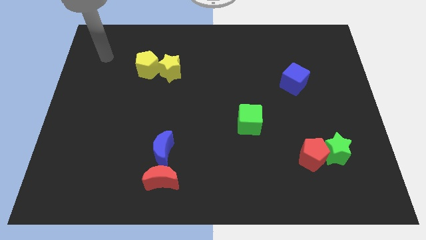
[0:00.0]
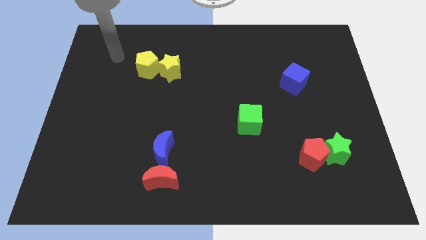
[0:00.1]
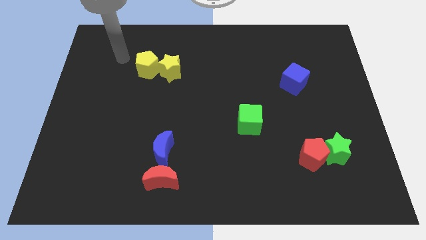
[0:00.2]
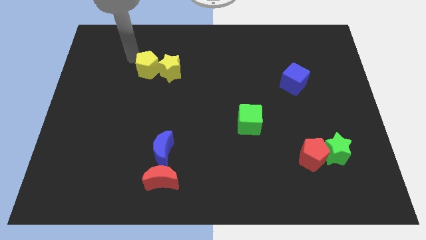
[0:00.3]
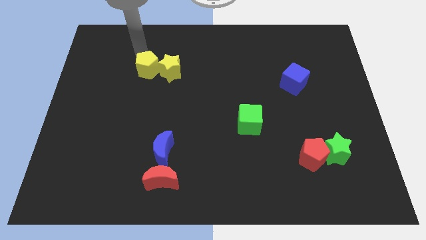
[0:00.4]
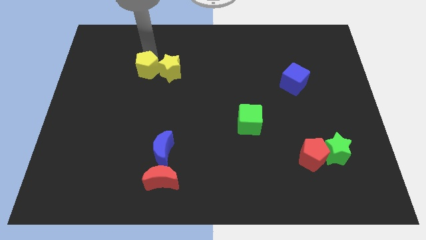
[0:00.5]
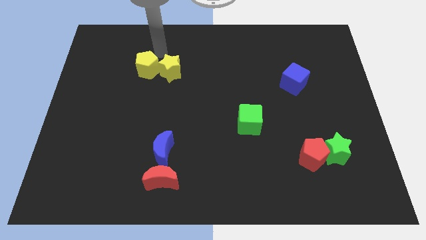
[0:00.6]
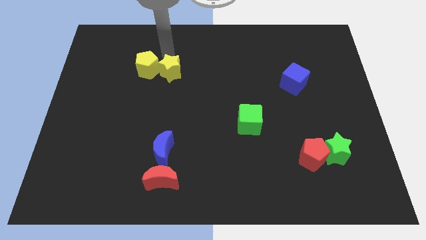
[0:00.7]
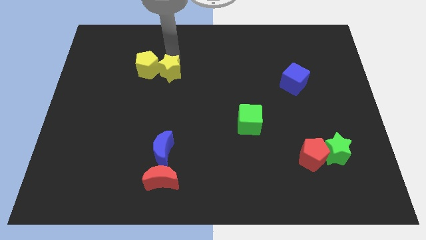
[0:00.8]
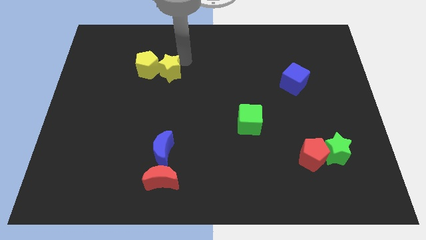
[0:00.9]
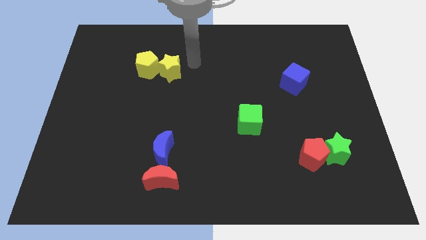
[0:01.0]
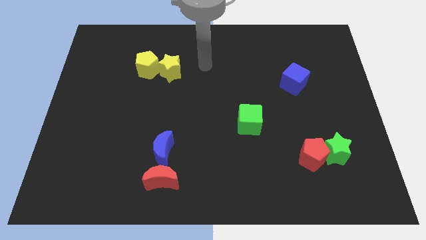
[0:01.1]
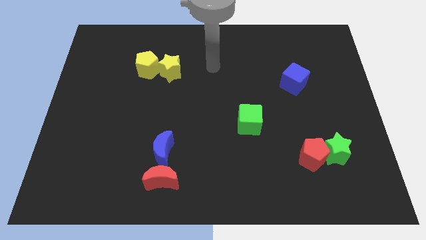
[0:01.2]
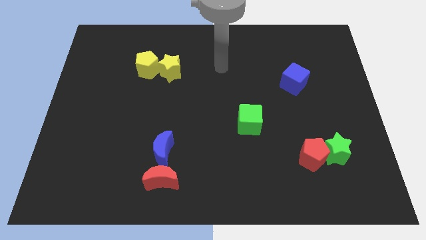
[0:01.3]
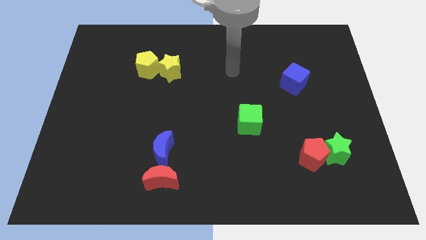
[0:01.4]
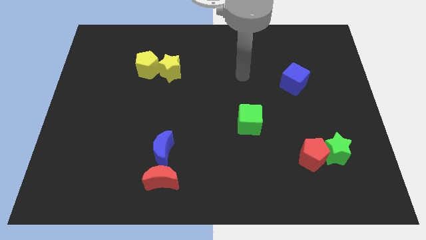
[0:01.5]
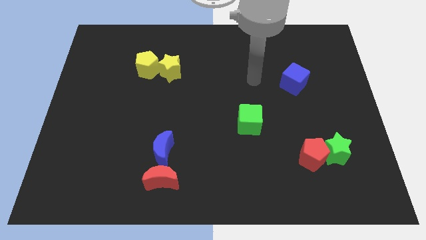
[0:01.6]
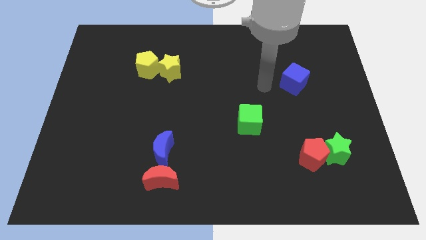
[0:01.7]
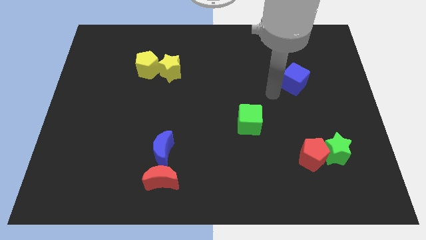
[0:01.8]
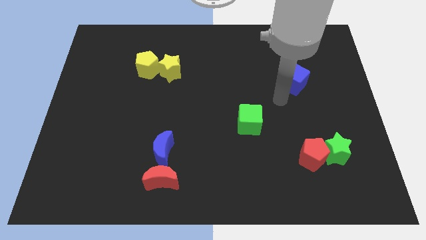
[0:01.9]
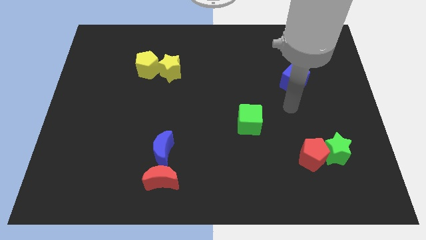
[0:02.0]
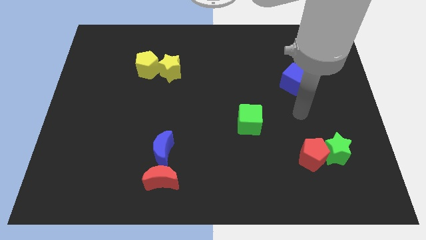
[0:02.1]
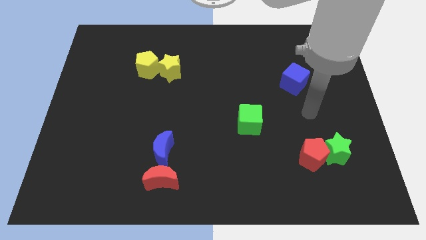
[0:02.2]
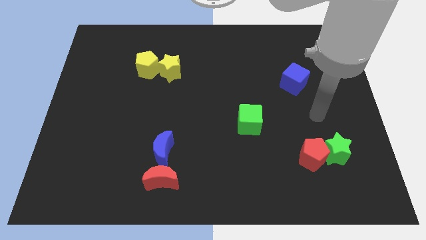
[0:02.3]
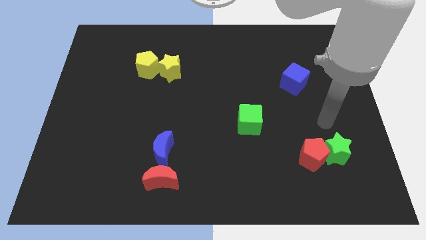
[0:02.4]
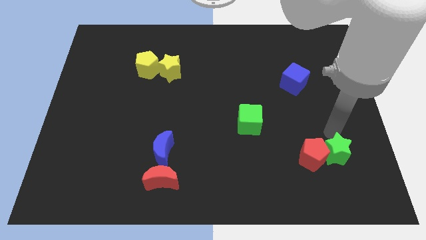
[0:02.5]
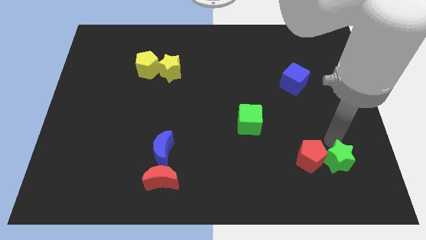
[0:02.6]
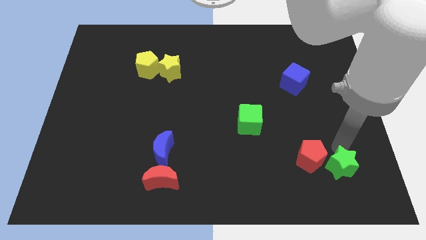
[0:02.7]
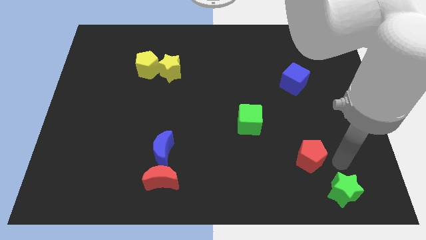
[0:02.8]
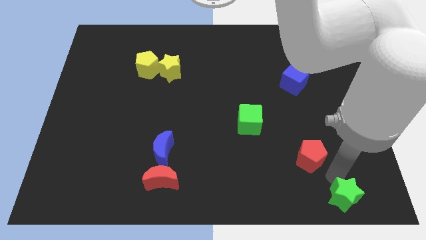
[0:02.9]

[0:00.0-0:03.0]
move the red pentagon away from the green star

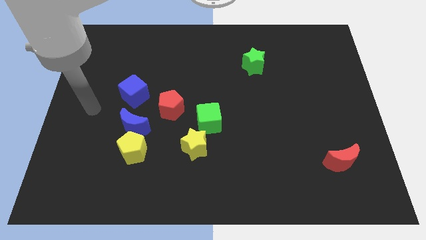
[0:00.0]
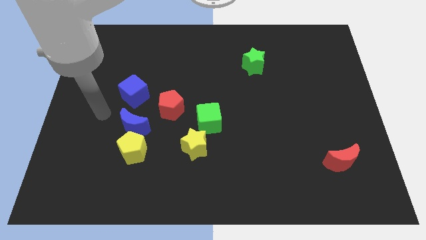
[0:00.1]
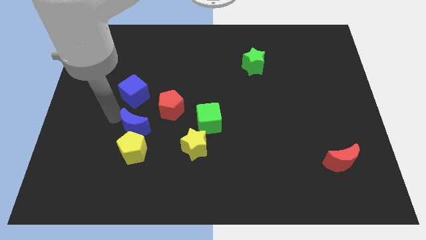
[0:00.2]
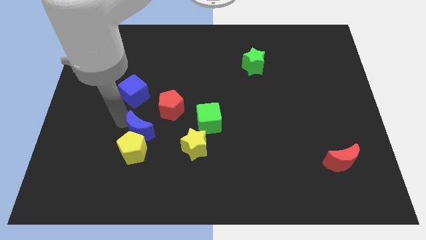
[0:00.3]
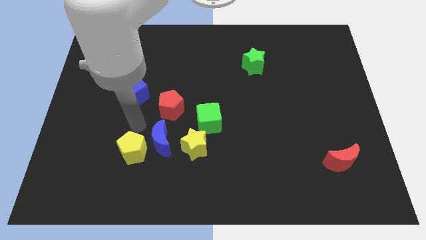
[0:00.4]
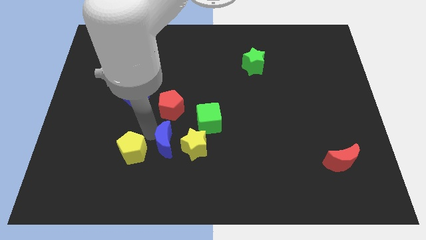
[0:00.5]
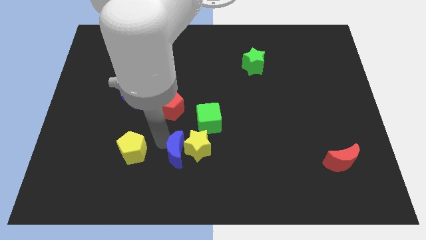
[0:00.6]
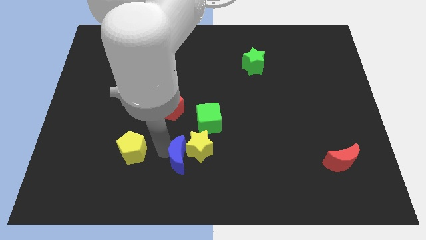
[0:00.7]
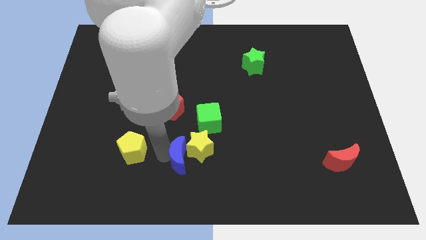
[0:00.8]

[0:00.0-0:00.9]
pull the yellow pentagon apart from the blue moon

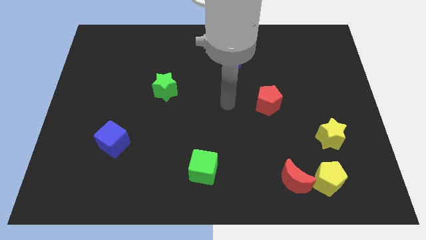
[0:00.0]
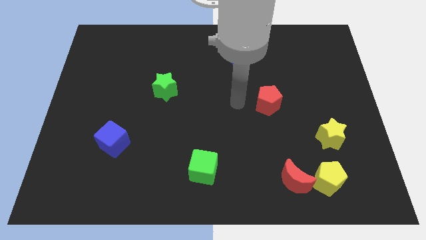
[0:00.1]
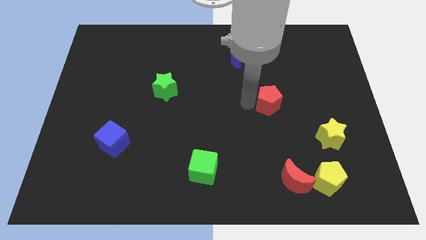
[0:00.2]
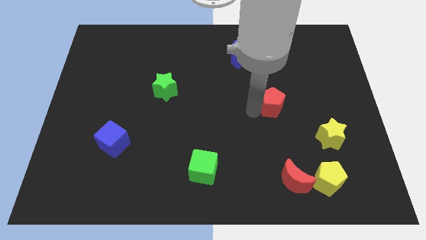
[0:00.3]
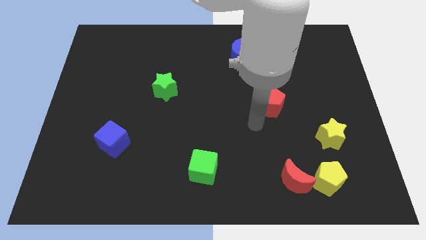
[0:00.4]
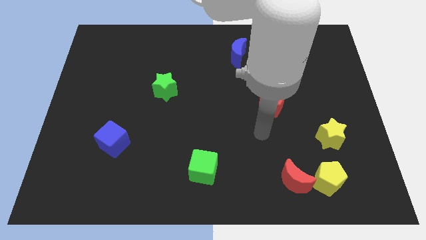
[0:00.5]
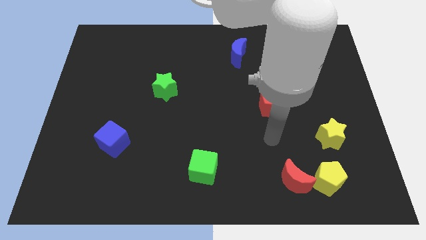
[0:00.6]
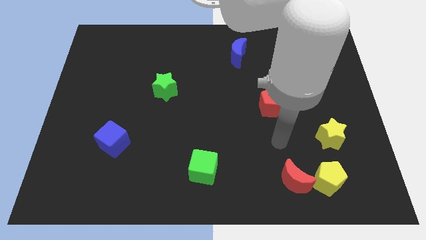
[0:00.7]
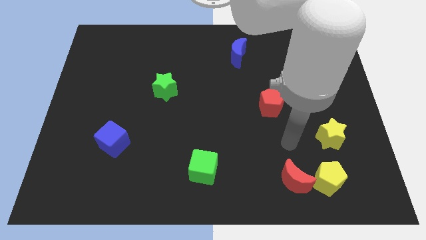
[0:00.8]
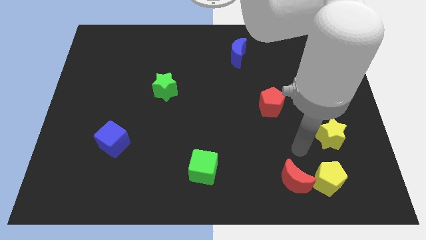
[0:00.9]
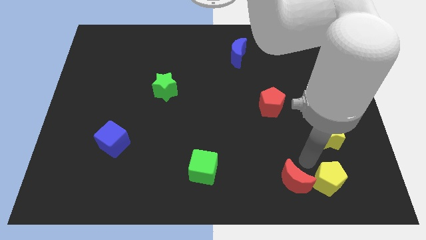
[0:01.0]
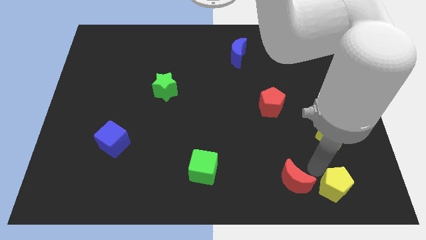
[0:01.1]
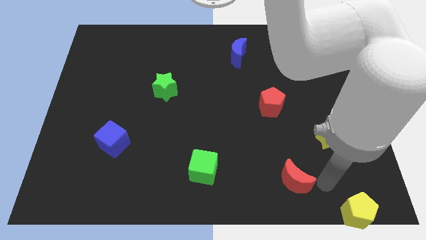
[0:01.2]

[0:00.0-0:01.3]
pull the red moon apart from the yellow pentagon

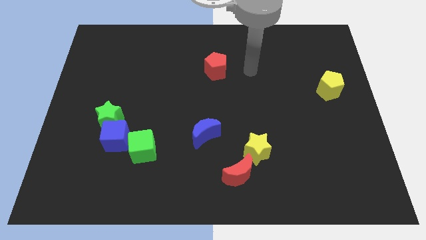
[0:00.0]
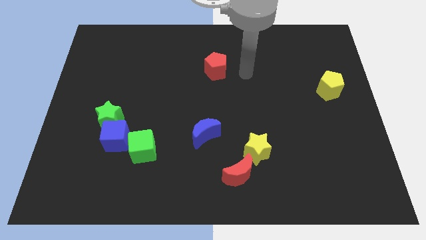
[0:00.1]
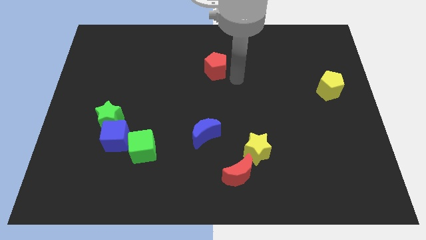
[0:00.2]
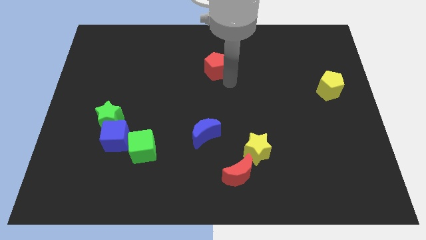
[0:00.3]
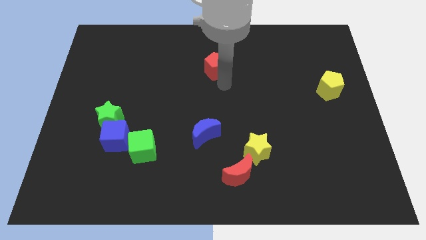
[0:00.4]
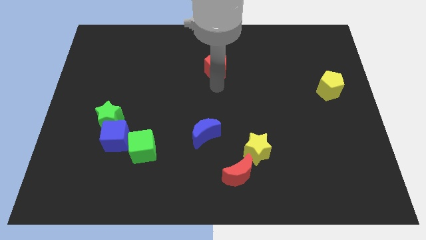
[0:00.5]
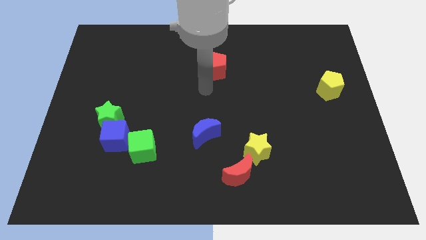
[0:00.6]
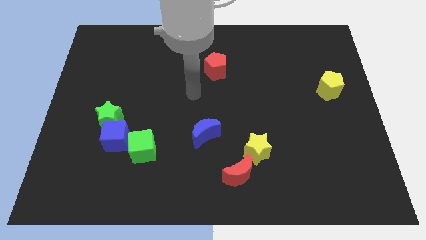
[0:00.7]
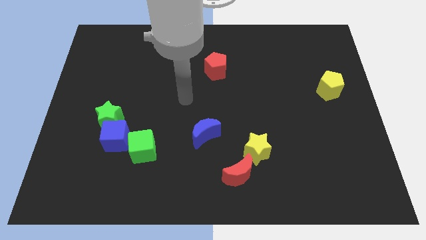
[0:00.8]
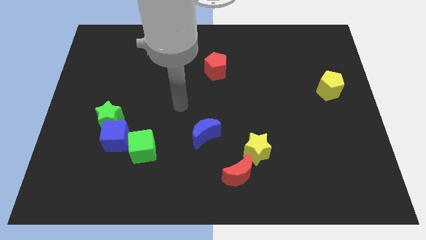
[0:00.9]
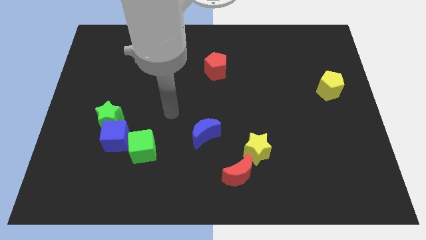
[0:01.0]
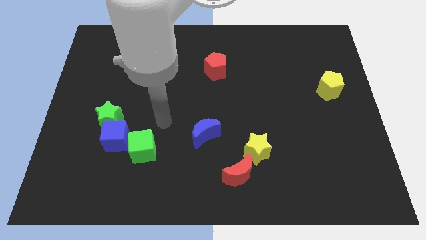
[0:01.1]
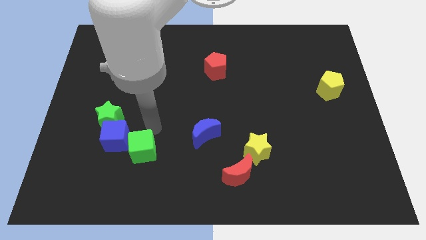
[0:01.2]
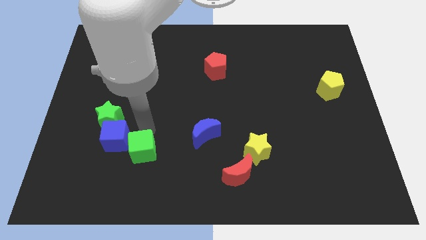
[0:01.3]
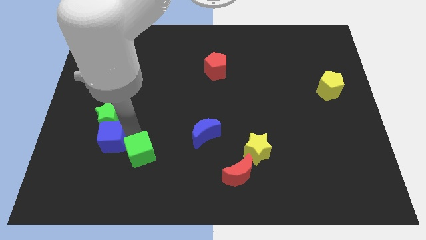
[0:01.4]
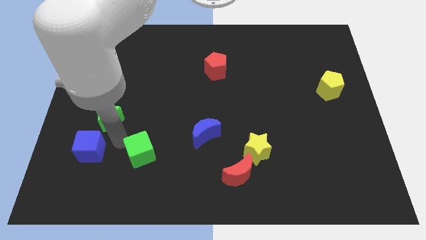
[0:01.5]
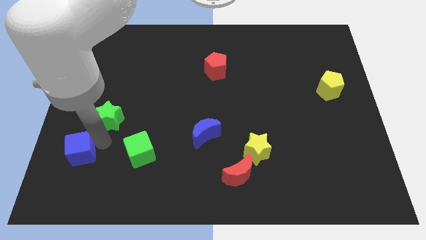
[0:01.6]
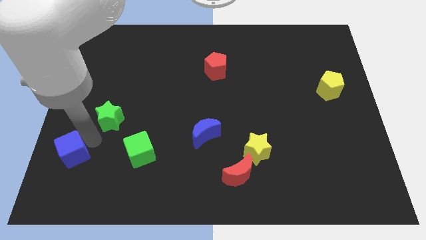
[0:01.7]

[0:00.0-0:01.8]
separate the green star from the blue cube

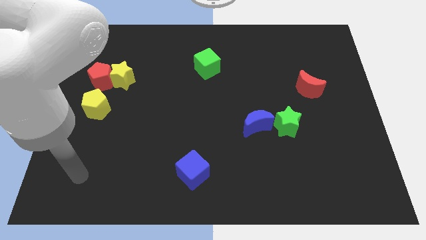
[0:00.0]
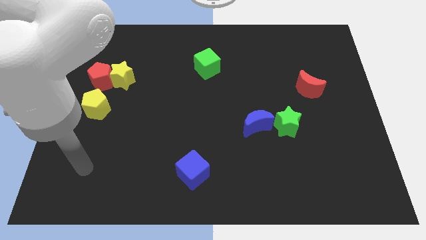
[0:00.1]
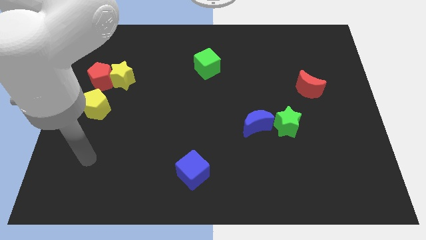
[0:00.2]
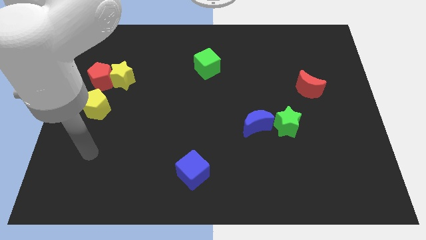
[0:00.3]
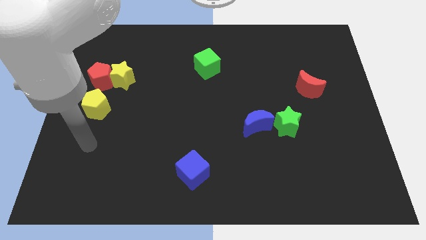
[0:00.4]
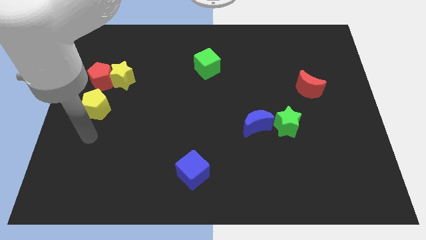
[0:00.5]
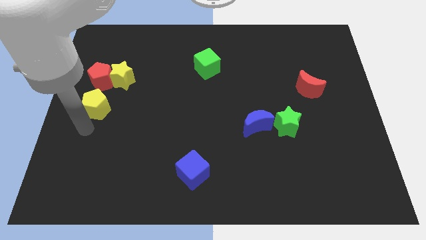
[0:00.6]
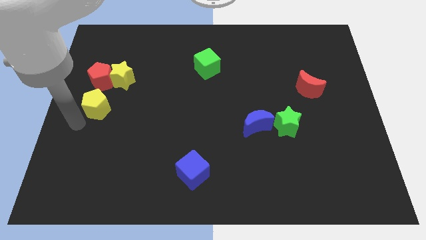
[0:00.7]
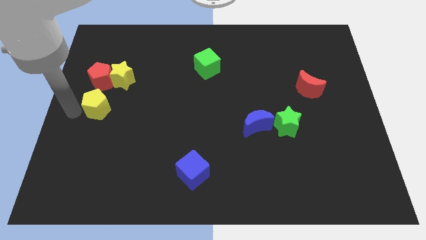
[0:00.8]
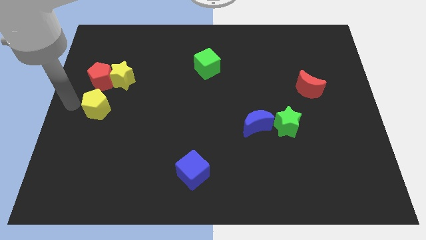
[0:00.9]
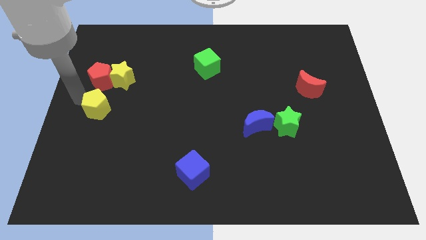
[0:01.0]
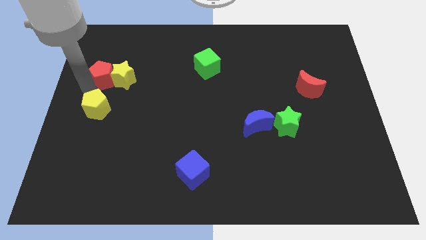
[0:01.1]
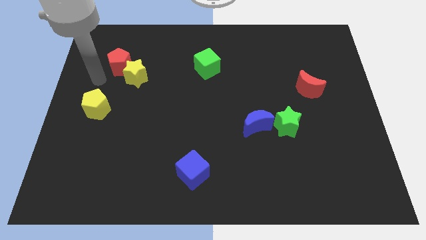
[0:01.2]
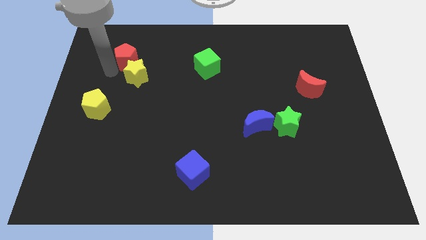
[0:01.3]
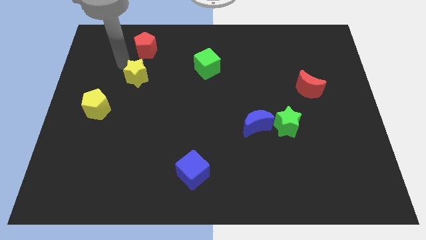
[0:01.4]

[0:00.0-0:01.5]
pull the yellow star apart from the red pentagon

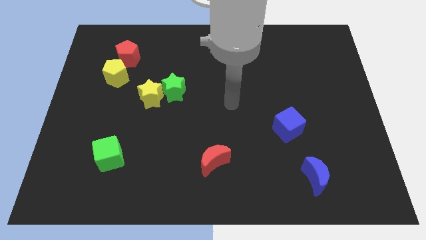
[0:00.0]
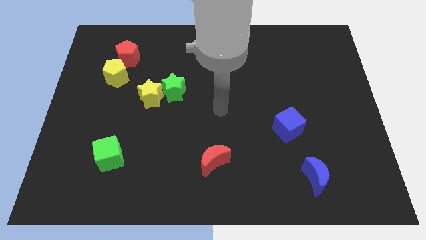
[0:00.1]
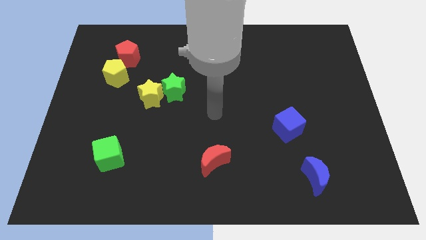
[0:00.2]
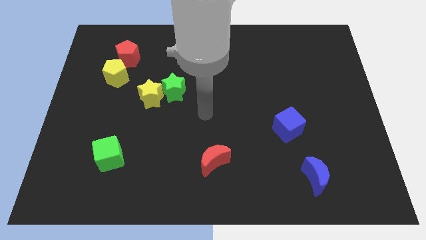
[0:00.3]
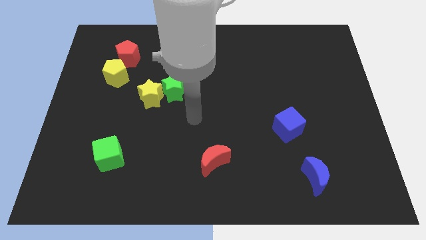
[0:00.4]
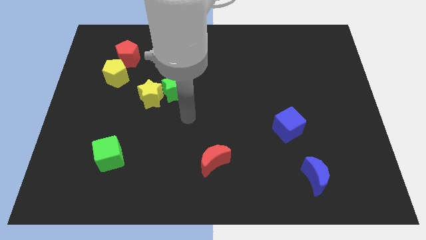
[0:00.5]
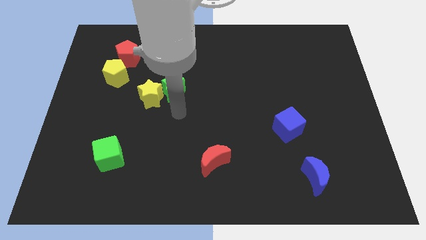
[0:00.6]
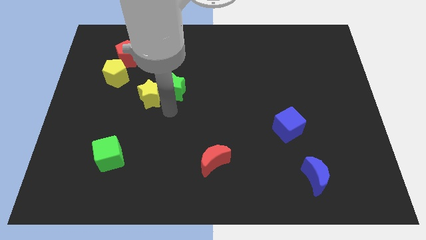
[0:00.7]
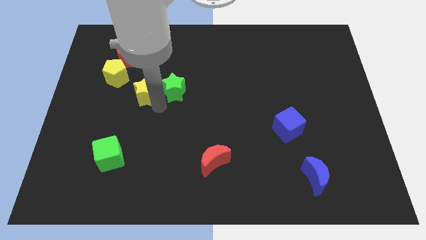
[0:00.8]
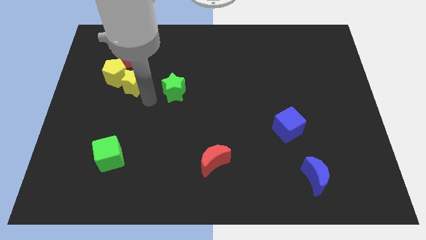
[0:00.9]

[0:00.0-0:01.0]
move the green star away from the yellow star

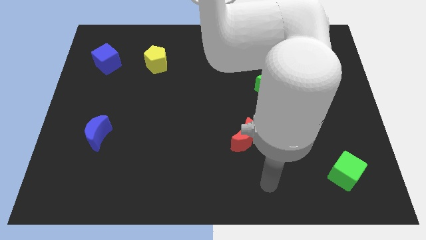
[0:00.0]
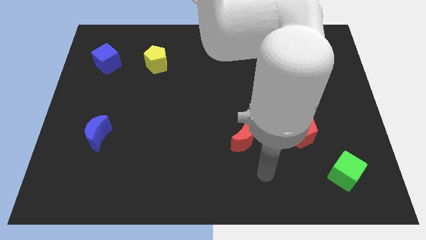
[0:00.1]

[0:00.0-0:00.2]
separate the green star from the yellow star
